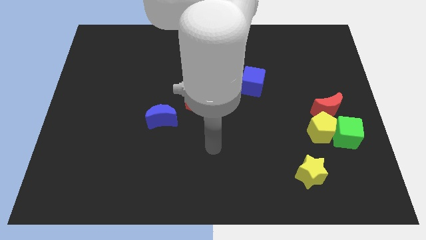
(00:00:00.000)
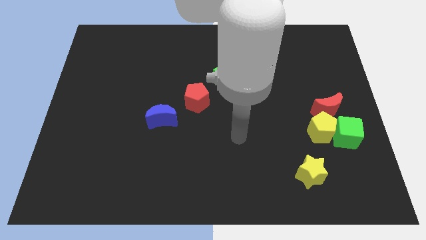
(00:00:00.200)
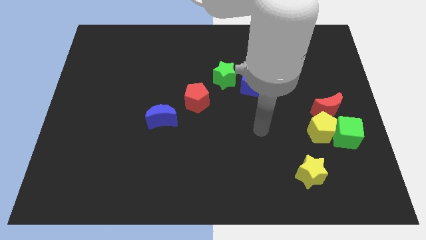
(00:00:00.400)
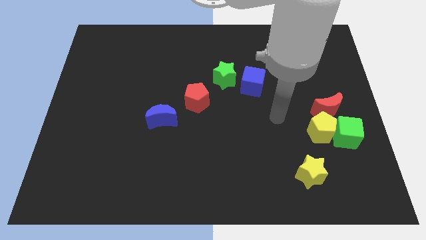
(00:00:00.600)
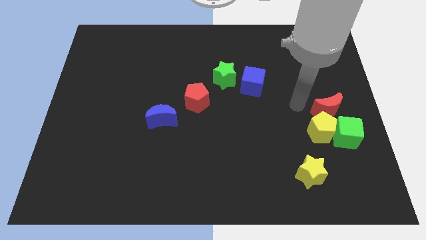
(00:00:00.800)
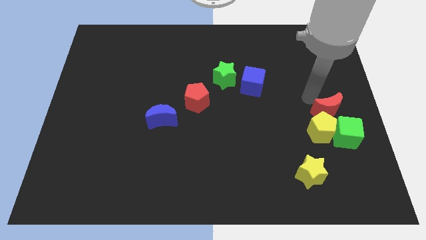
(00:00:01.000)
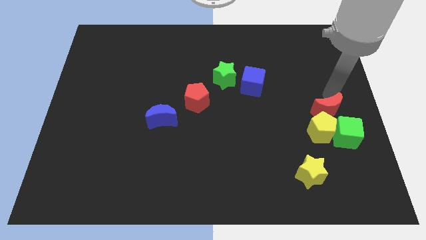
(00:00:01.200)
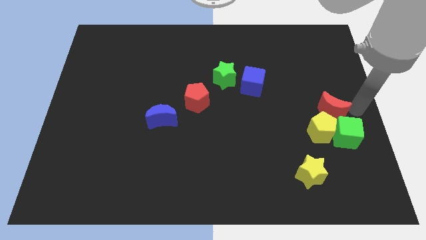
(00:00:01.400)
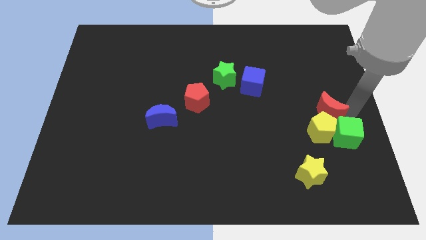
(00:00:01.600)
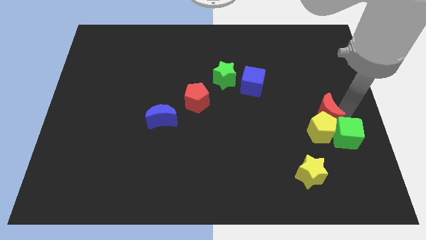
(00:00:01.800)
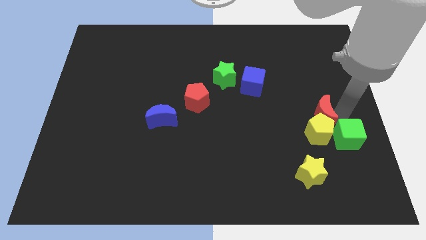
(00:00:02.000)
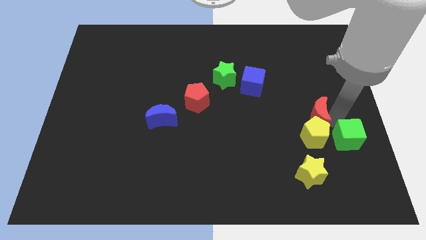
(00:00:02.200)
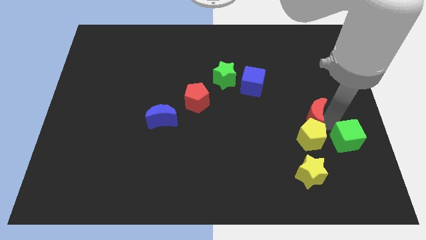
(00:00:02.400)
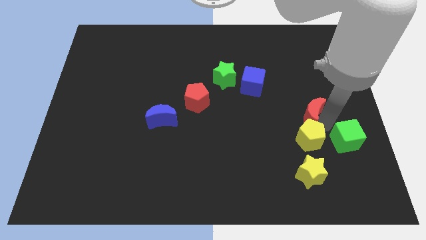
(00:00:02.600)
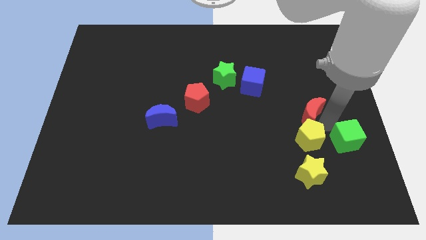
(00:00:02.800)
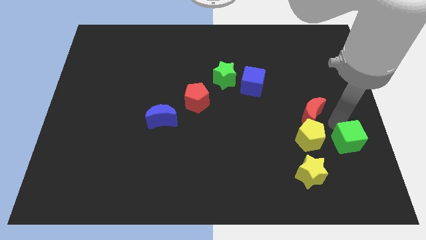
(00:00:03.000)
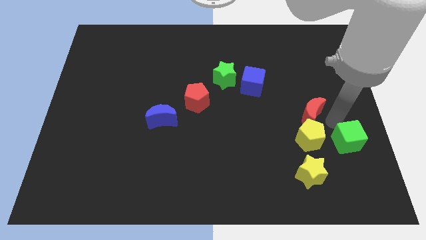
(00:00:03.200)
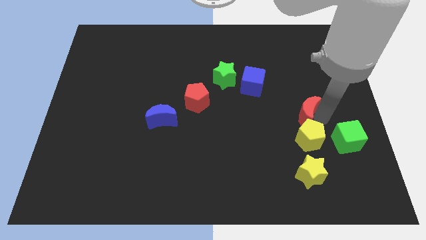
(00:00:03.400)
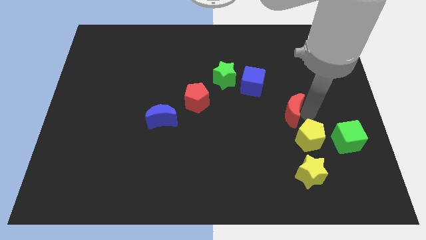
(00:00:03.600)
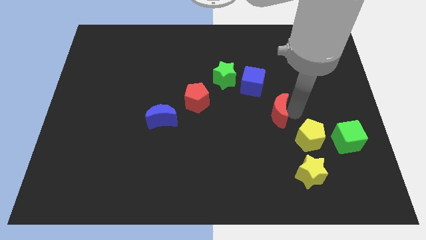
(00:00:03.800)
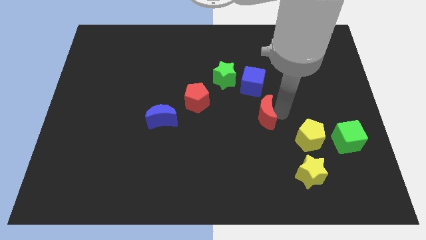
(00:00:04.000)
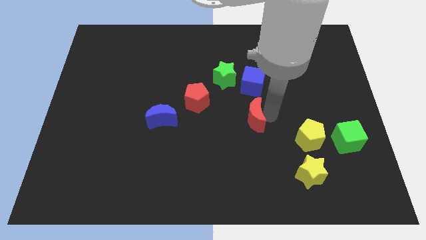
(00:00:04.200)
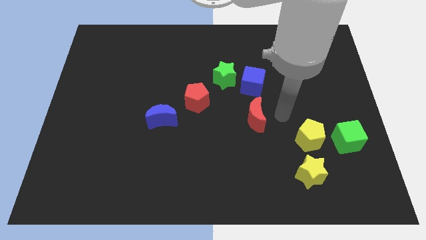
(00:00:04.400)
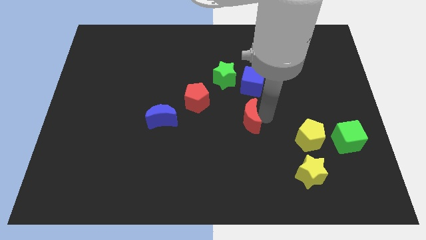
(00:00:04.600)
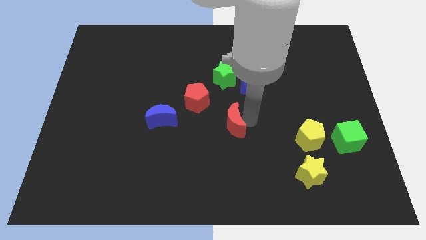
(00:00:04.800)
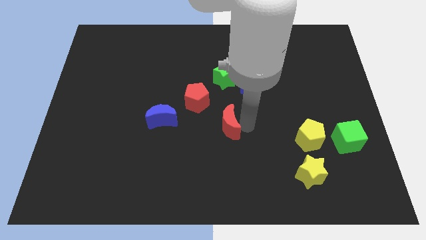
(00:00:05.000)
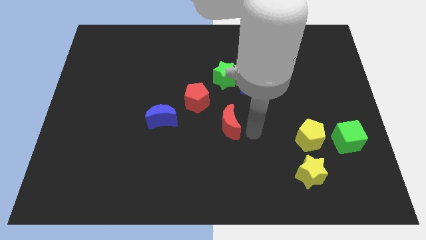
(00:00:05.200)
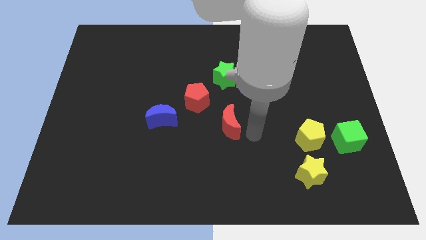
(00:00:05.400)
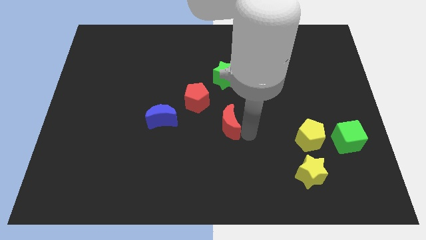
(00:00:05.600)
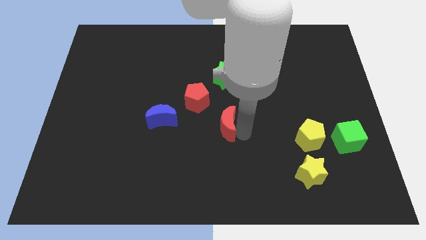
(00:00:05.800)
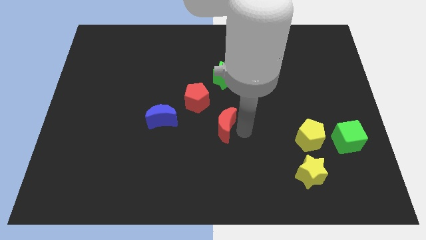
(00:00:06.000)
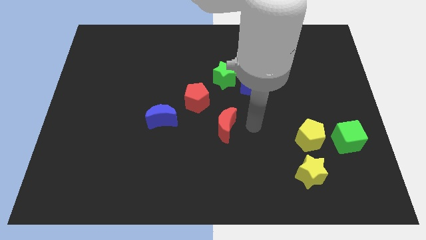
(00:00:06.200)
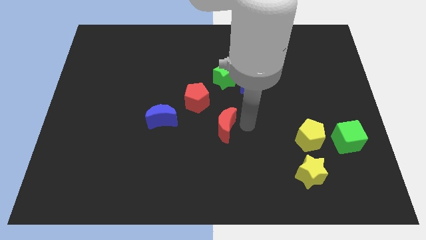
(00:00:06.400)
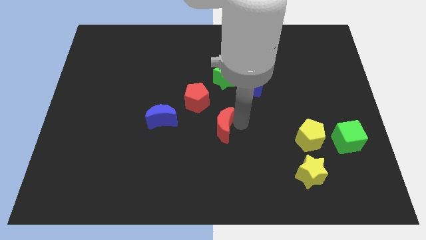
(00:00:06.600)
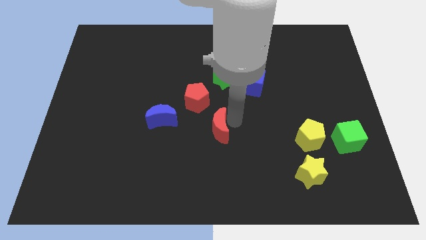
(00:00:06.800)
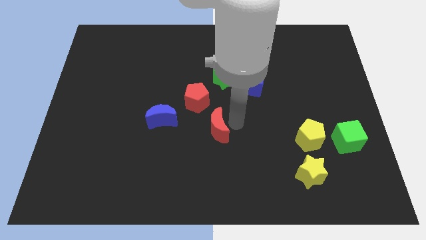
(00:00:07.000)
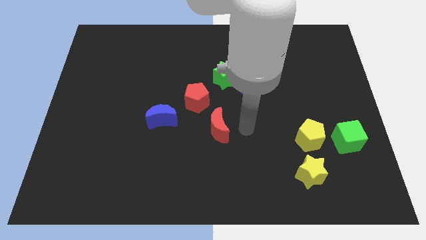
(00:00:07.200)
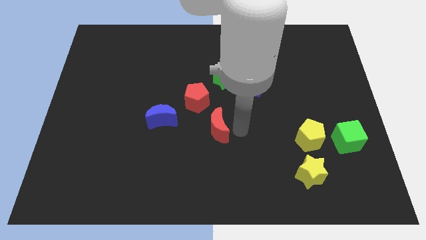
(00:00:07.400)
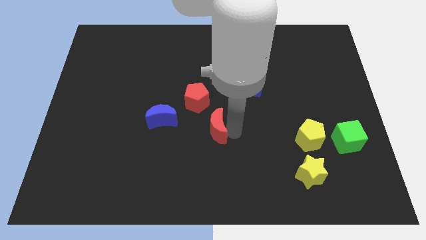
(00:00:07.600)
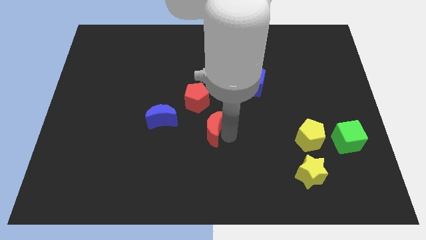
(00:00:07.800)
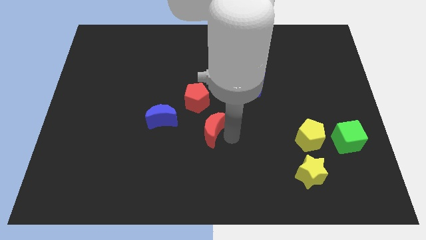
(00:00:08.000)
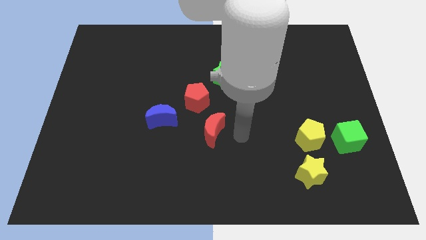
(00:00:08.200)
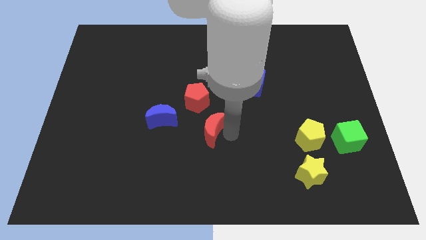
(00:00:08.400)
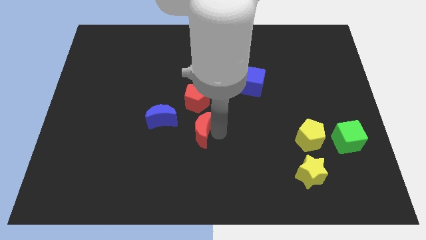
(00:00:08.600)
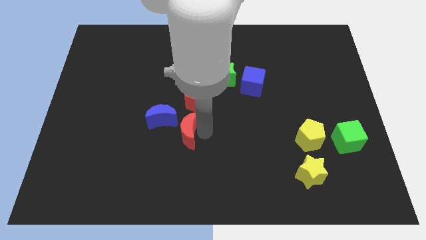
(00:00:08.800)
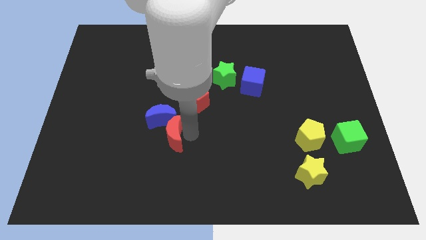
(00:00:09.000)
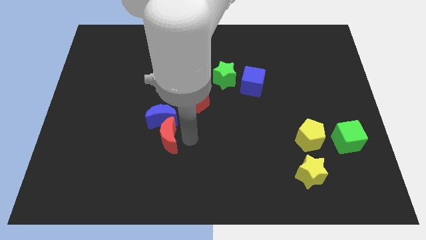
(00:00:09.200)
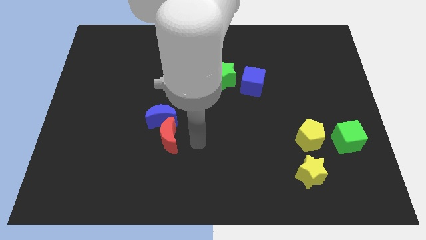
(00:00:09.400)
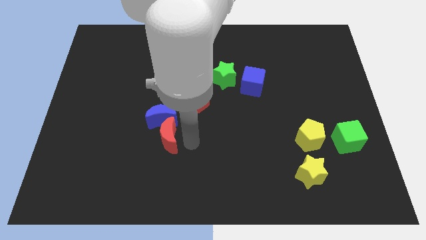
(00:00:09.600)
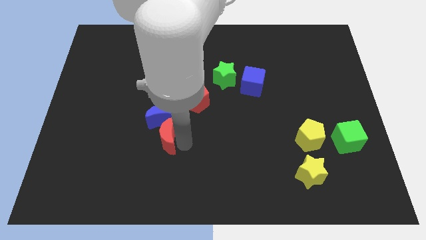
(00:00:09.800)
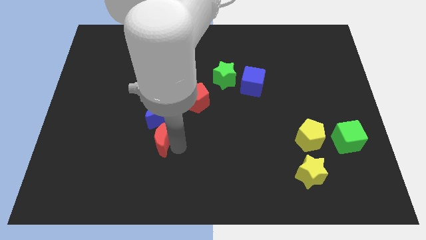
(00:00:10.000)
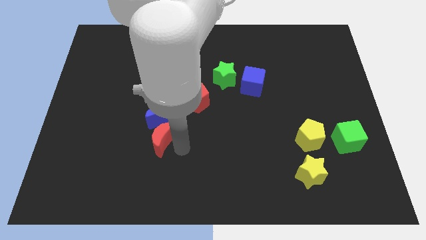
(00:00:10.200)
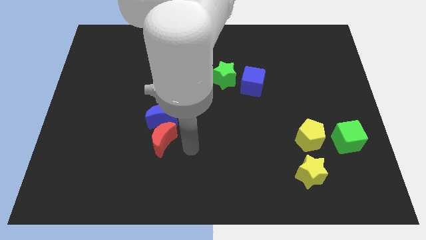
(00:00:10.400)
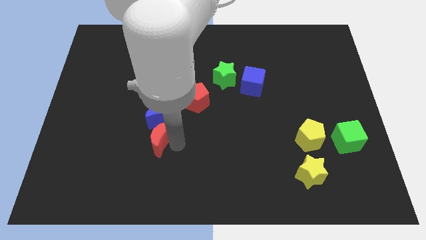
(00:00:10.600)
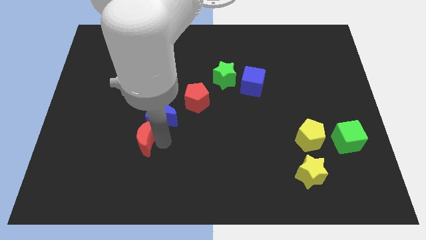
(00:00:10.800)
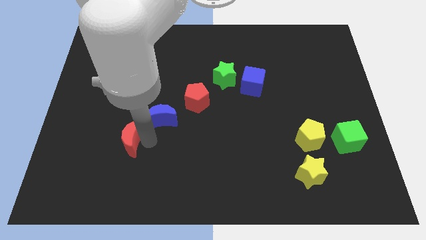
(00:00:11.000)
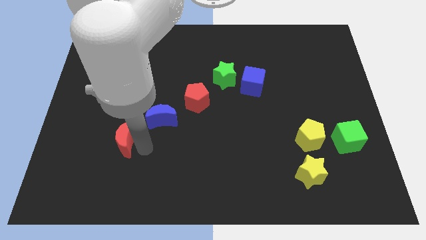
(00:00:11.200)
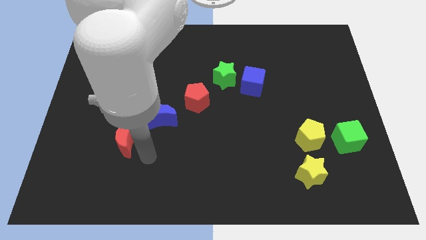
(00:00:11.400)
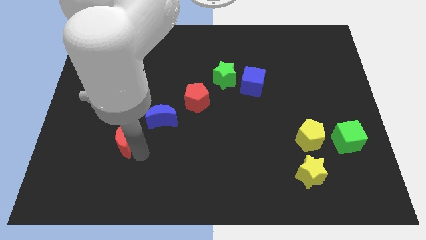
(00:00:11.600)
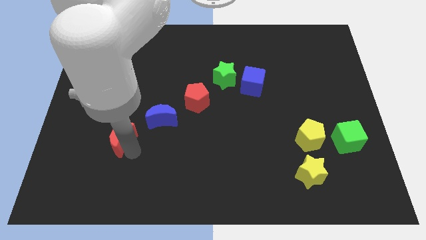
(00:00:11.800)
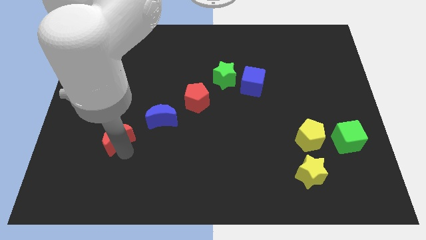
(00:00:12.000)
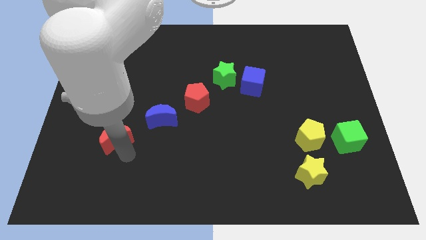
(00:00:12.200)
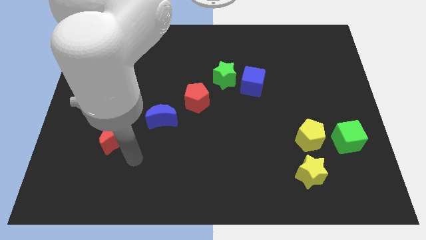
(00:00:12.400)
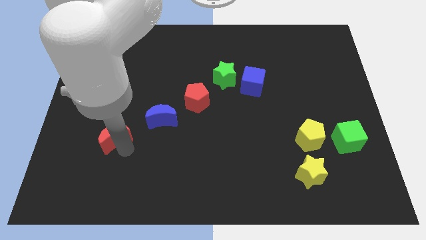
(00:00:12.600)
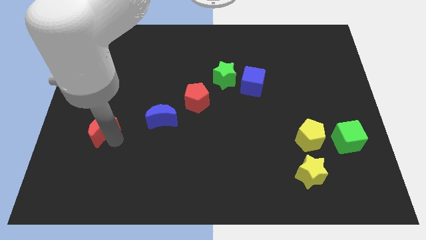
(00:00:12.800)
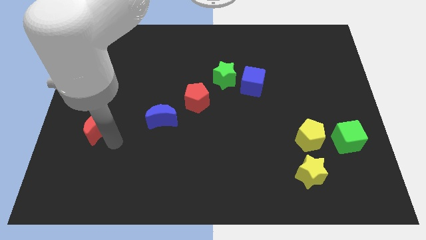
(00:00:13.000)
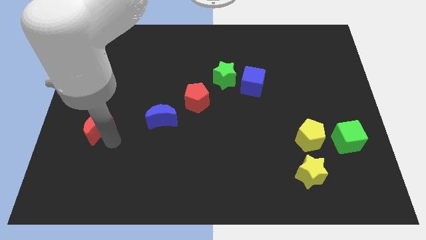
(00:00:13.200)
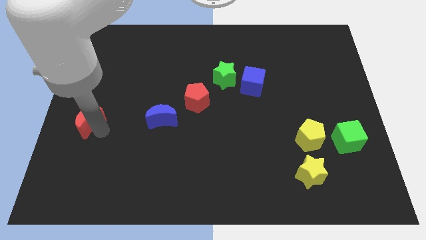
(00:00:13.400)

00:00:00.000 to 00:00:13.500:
move the red moon to the left side

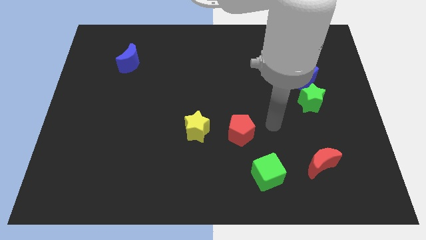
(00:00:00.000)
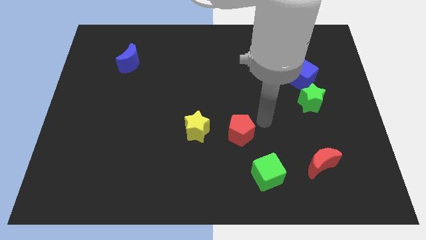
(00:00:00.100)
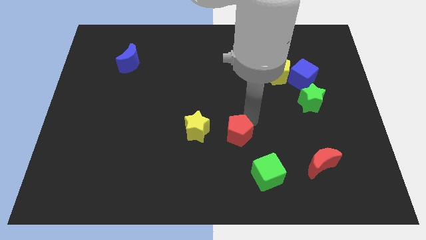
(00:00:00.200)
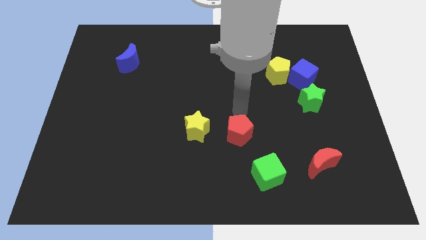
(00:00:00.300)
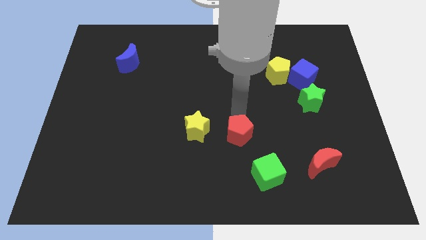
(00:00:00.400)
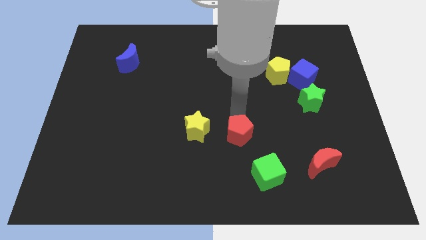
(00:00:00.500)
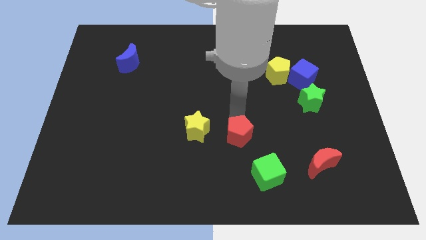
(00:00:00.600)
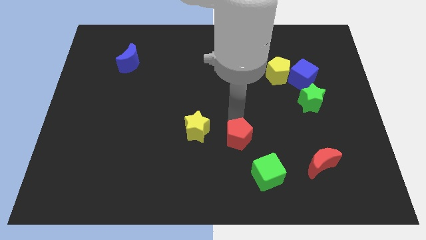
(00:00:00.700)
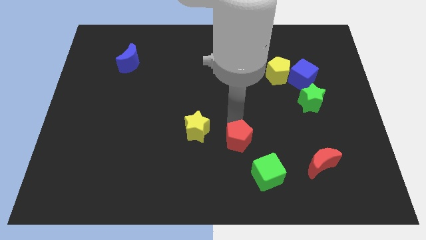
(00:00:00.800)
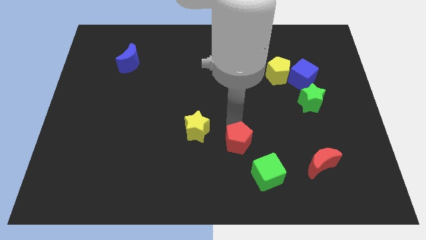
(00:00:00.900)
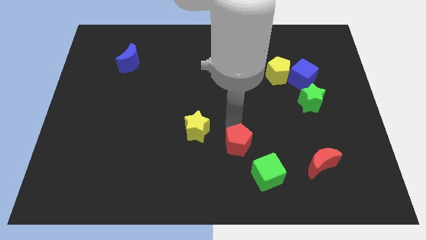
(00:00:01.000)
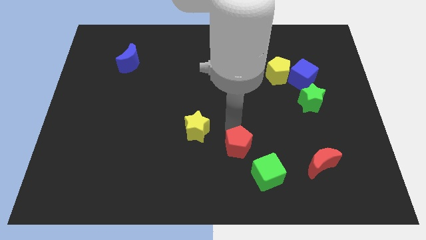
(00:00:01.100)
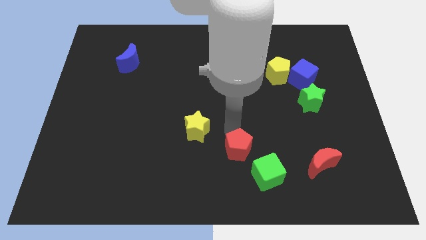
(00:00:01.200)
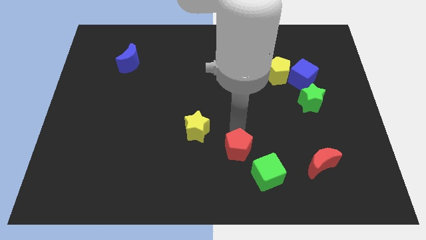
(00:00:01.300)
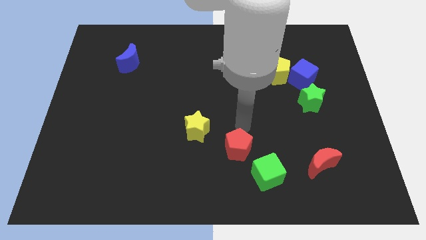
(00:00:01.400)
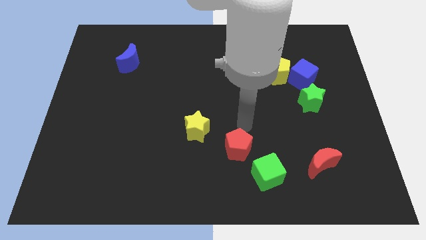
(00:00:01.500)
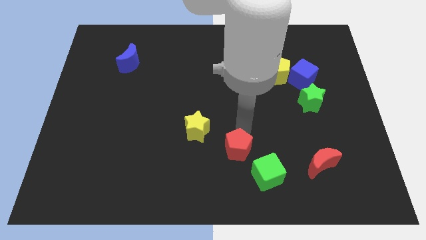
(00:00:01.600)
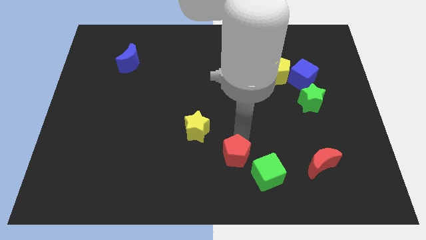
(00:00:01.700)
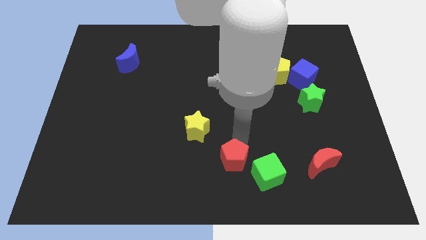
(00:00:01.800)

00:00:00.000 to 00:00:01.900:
move the red pentagon to the bottom
